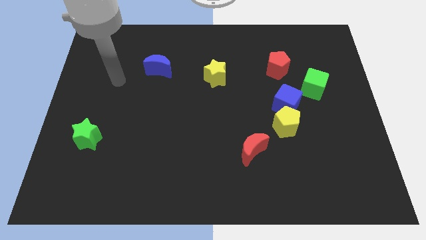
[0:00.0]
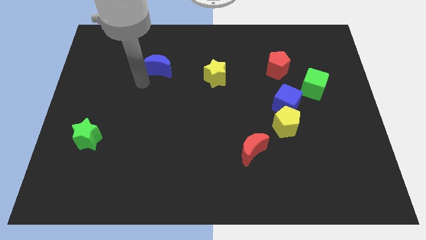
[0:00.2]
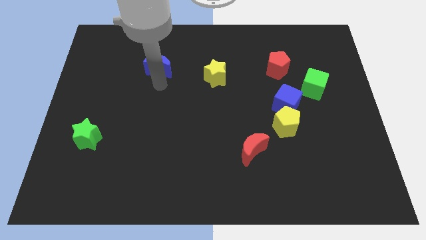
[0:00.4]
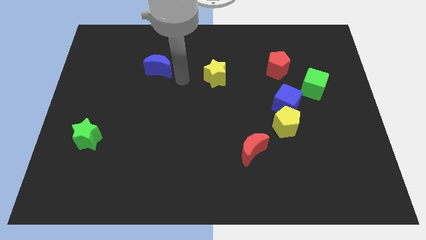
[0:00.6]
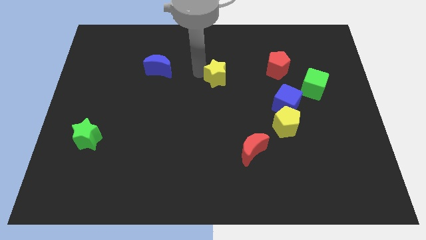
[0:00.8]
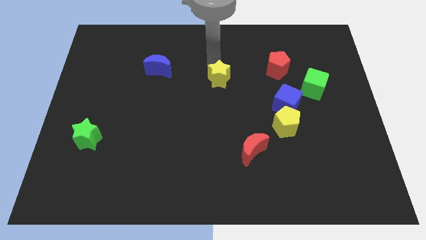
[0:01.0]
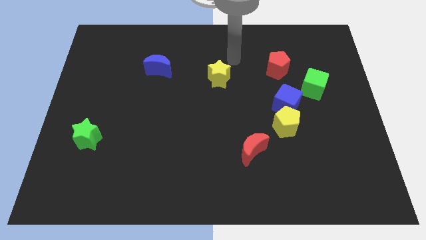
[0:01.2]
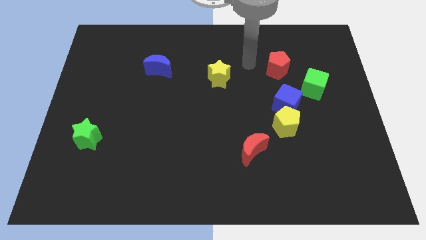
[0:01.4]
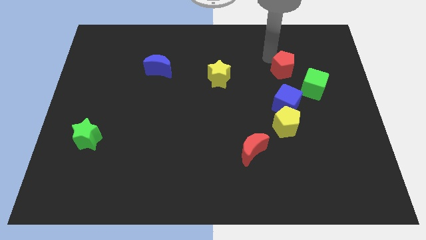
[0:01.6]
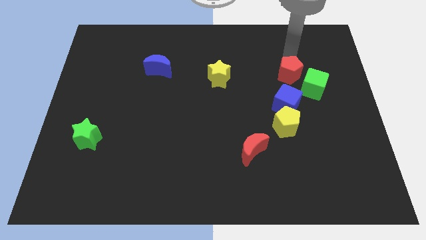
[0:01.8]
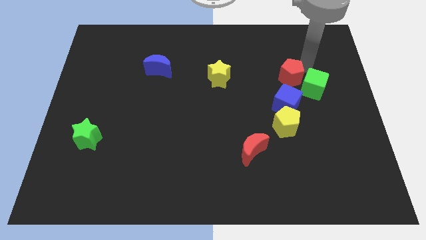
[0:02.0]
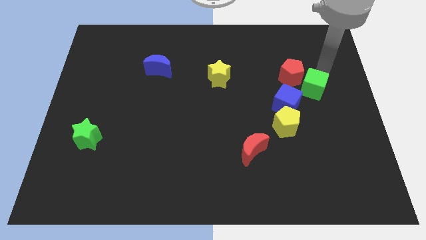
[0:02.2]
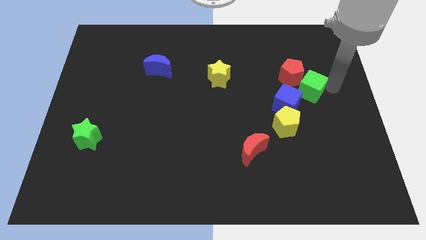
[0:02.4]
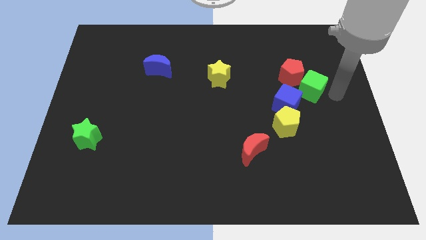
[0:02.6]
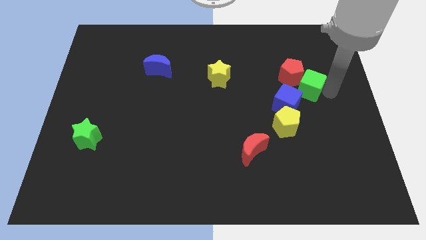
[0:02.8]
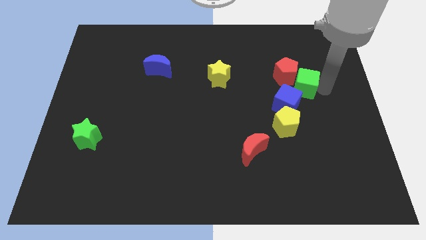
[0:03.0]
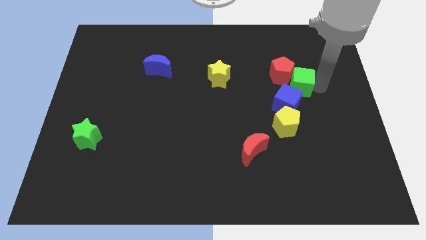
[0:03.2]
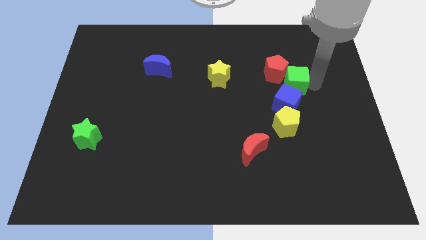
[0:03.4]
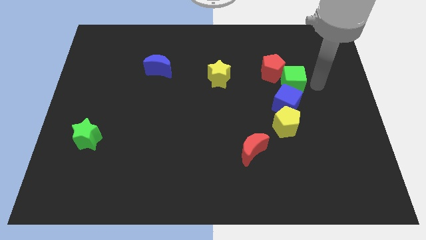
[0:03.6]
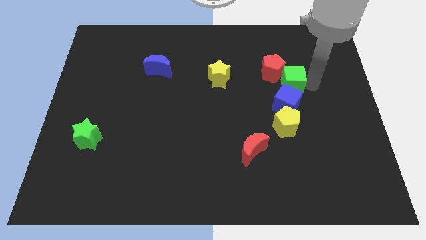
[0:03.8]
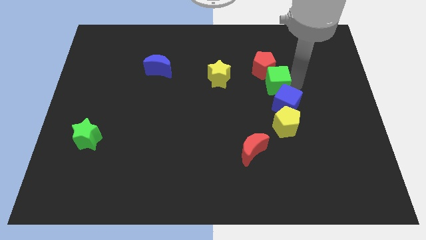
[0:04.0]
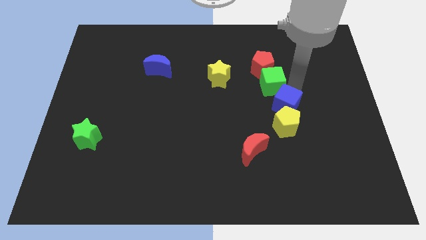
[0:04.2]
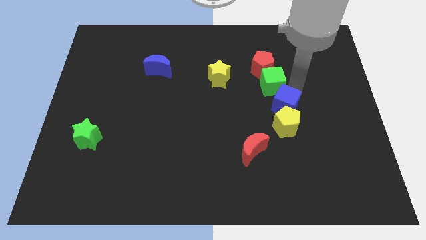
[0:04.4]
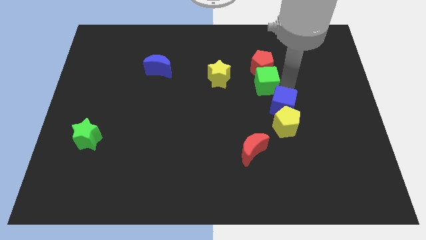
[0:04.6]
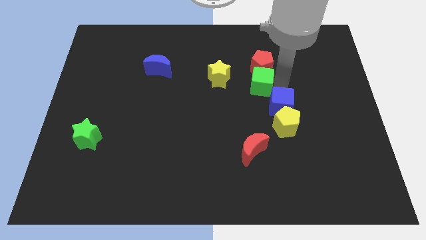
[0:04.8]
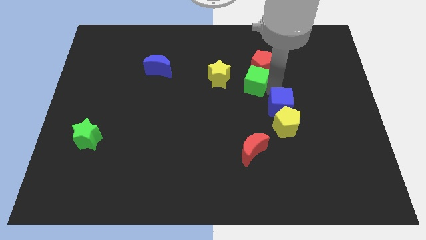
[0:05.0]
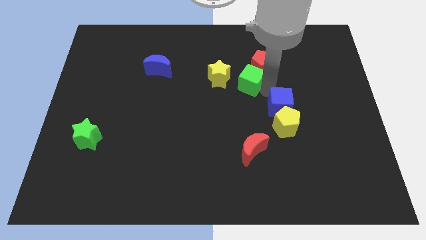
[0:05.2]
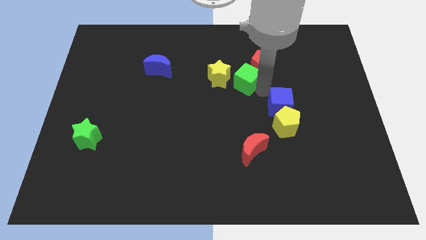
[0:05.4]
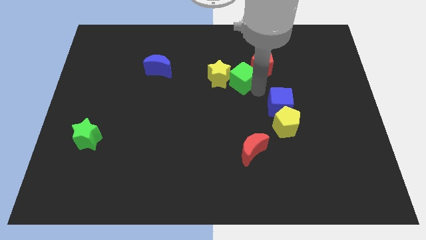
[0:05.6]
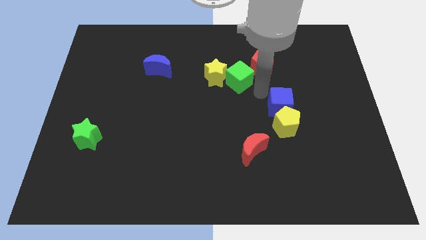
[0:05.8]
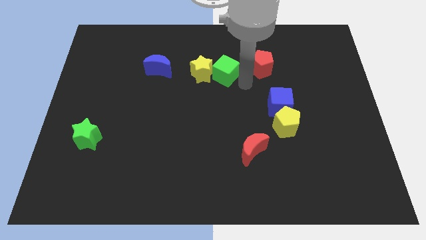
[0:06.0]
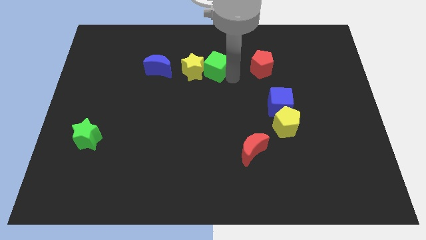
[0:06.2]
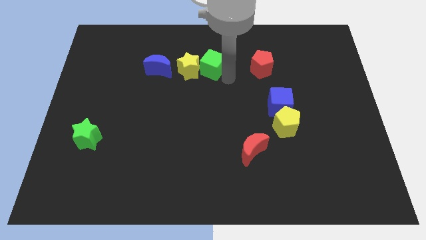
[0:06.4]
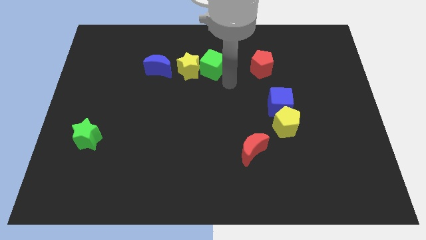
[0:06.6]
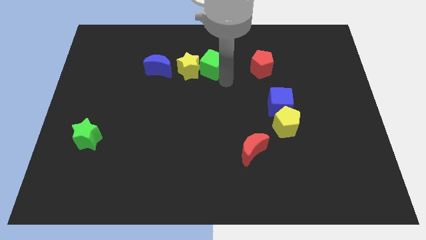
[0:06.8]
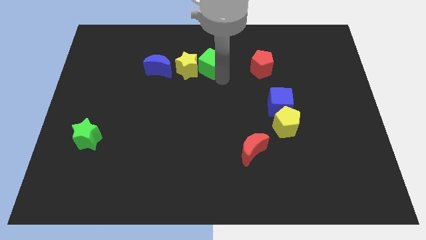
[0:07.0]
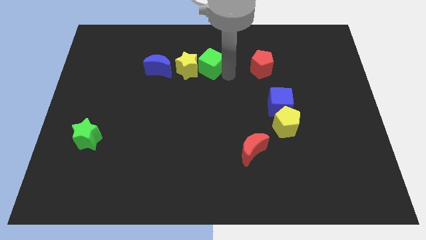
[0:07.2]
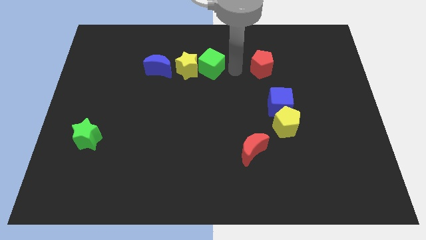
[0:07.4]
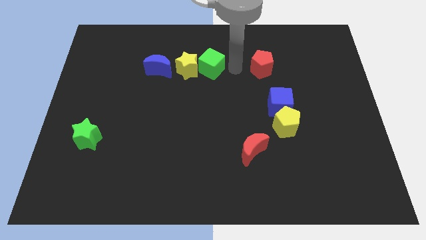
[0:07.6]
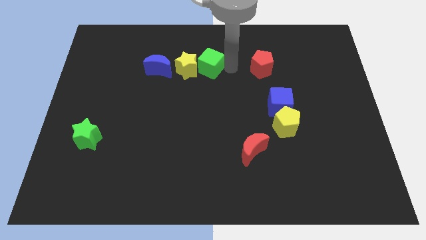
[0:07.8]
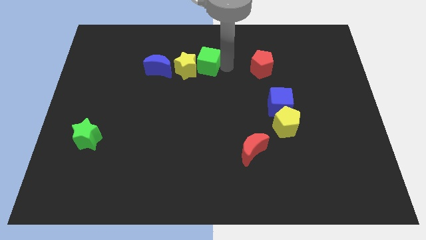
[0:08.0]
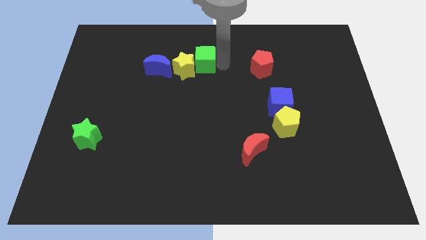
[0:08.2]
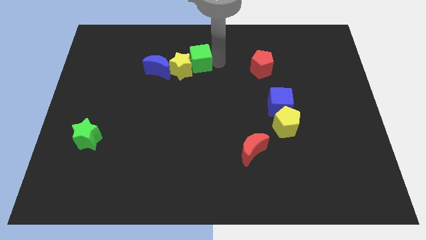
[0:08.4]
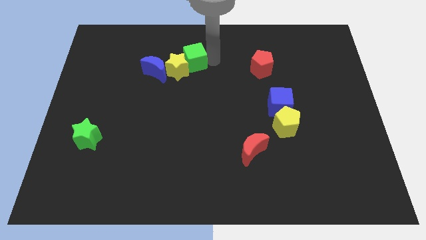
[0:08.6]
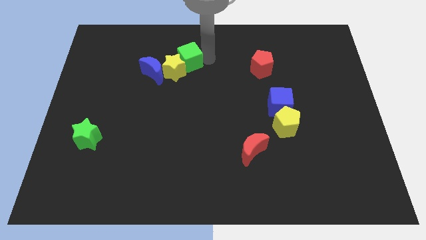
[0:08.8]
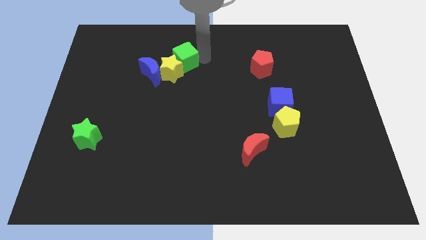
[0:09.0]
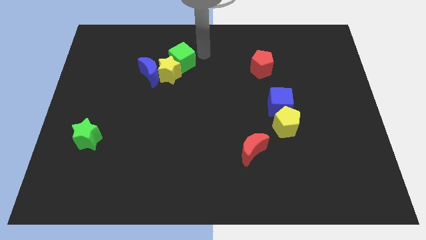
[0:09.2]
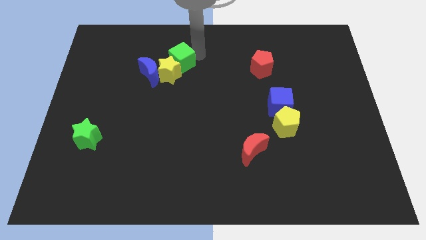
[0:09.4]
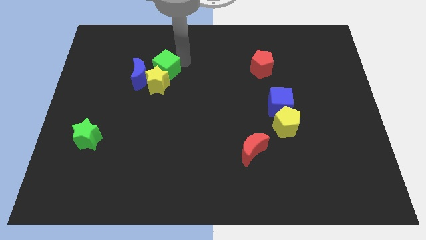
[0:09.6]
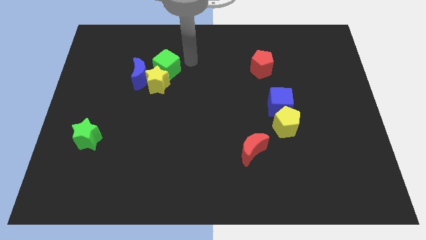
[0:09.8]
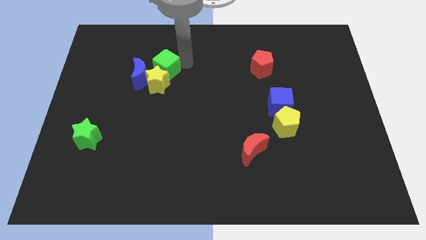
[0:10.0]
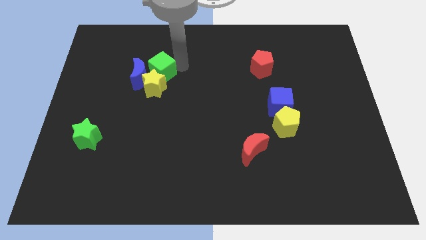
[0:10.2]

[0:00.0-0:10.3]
slide the green cube to the blue moon

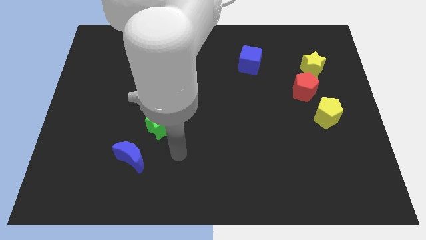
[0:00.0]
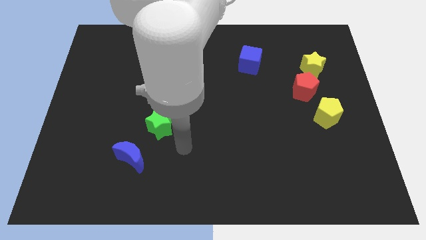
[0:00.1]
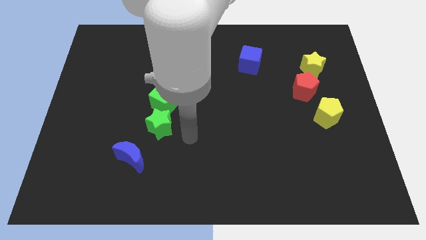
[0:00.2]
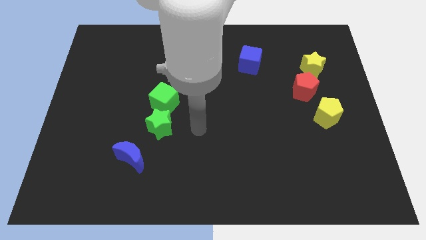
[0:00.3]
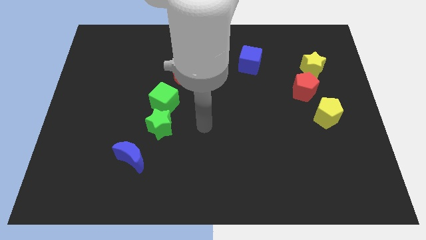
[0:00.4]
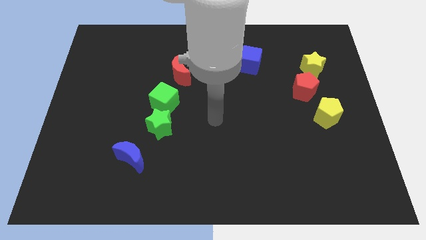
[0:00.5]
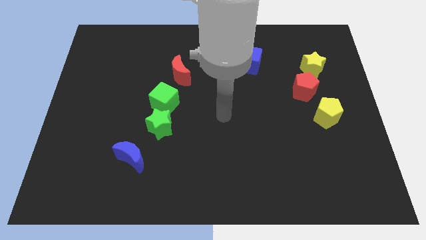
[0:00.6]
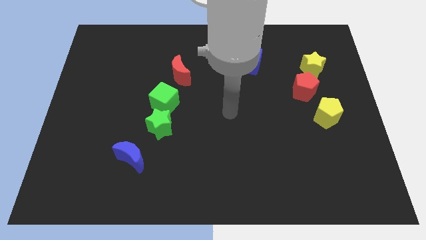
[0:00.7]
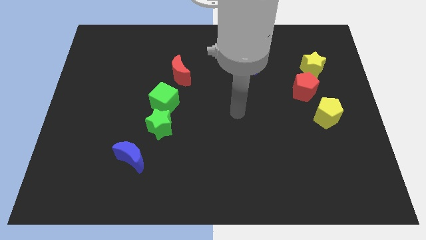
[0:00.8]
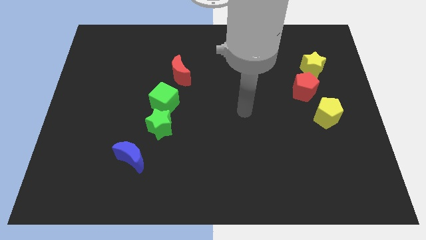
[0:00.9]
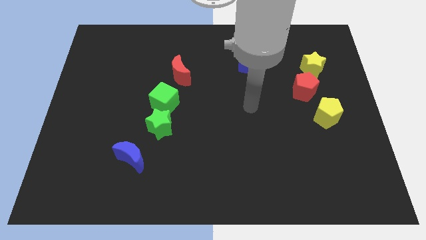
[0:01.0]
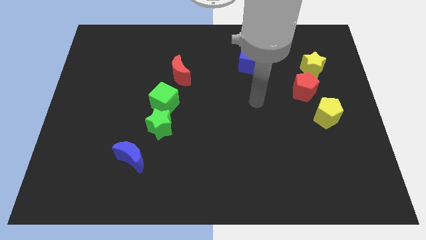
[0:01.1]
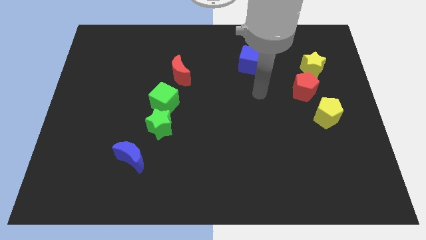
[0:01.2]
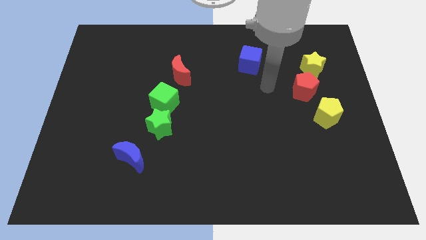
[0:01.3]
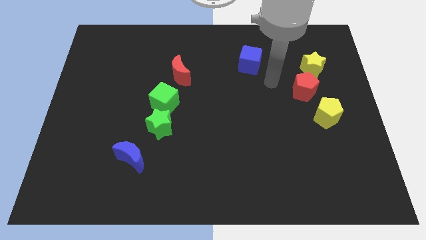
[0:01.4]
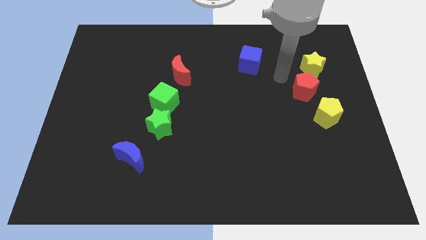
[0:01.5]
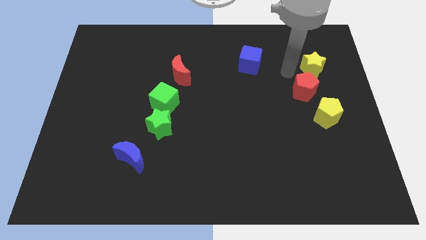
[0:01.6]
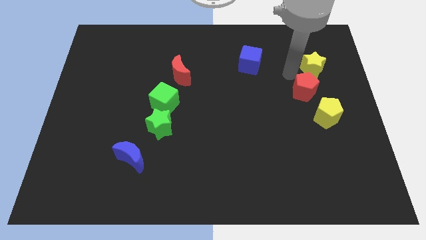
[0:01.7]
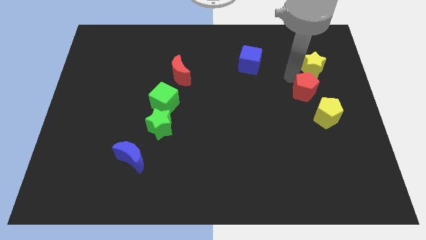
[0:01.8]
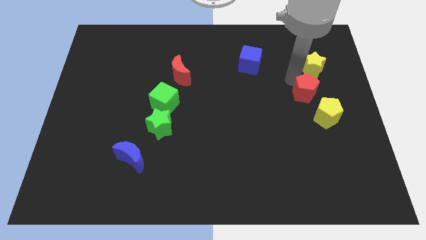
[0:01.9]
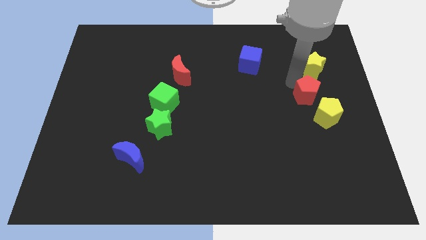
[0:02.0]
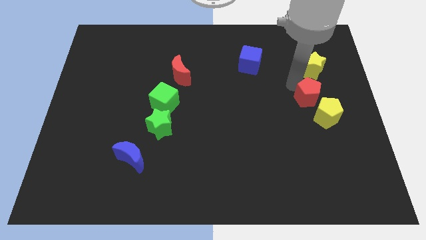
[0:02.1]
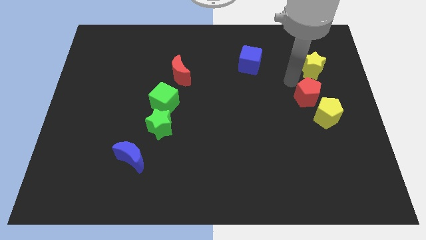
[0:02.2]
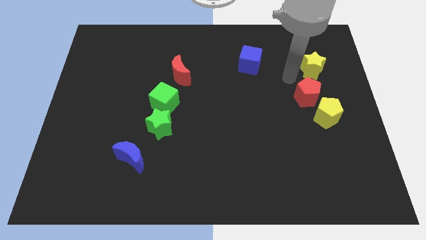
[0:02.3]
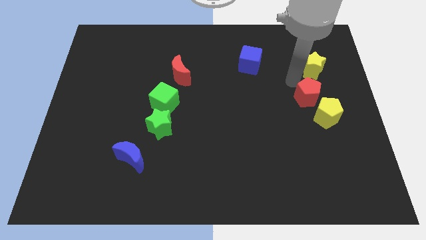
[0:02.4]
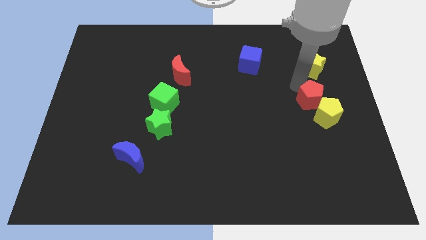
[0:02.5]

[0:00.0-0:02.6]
push the red pentagon to the yellow pentagon
